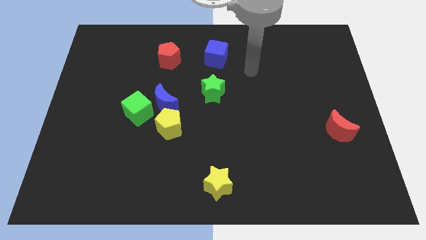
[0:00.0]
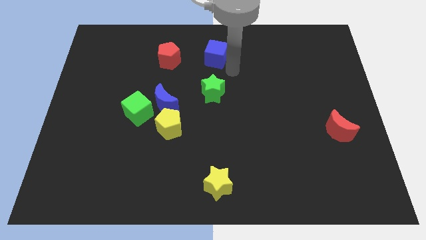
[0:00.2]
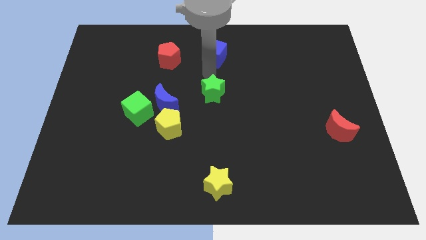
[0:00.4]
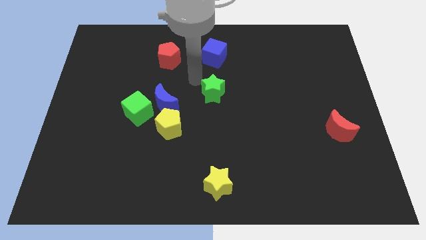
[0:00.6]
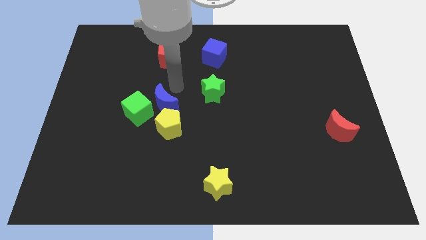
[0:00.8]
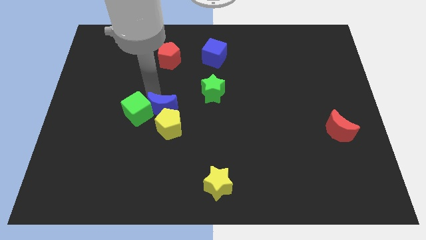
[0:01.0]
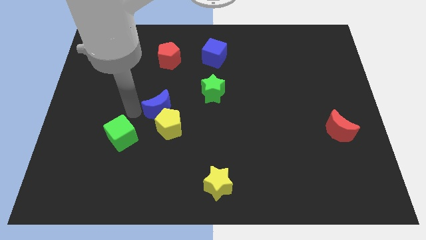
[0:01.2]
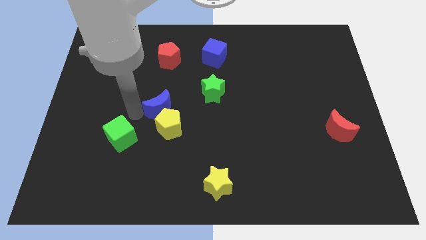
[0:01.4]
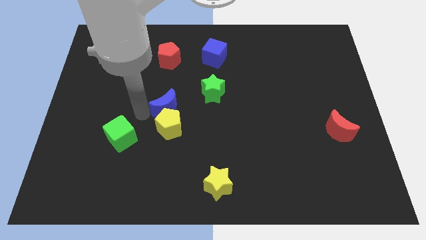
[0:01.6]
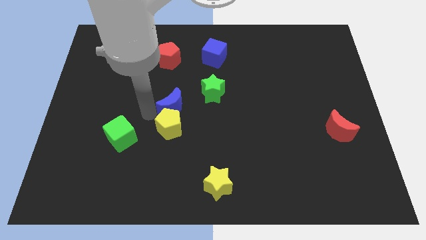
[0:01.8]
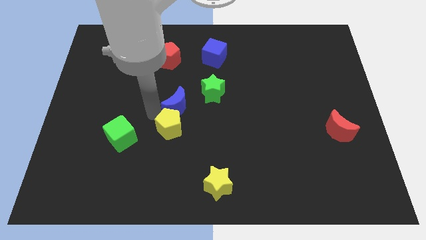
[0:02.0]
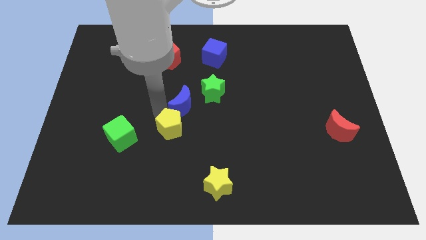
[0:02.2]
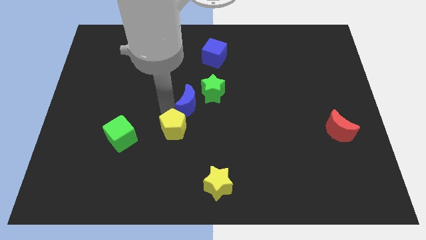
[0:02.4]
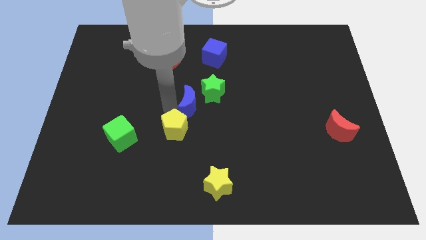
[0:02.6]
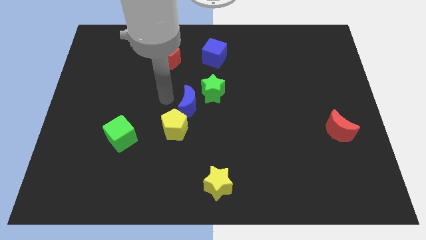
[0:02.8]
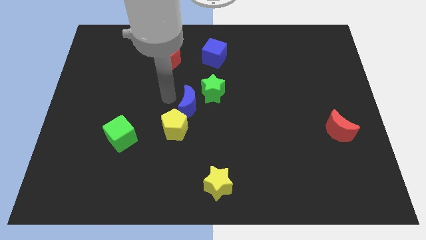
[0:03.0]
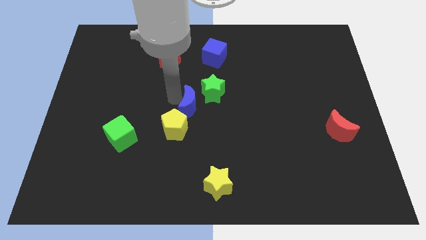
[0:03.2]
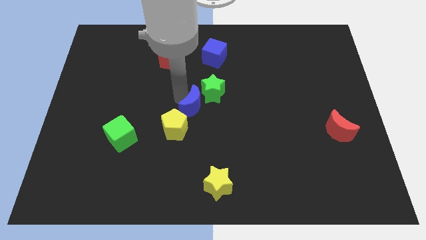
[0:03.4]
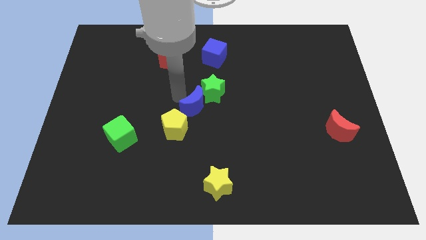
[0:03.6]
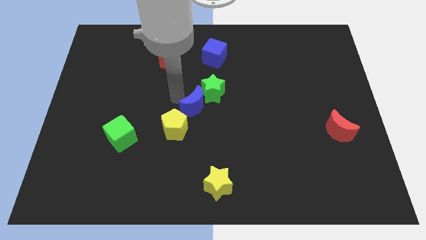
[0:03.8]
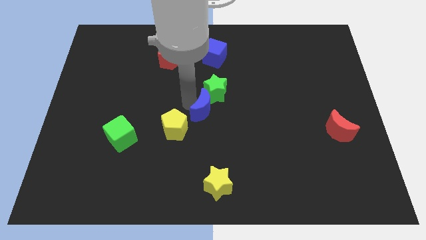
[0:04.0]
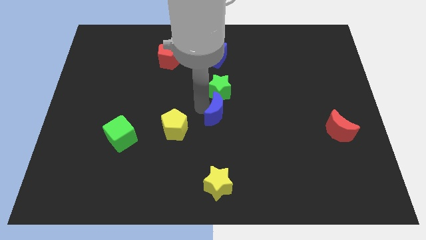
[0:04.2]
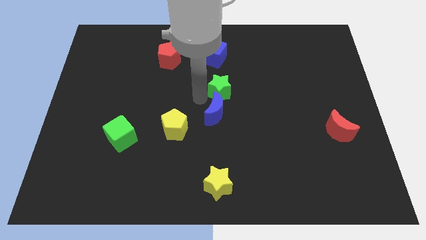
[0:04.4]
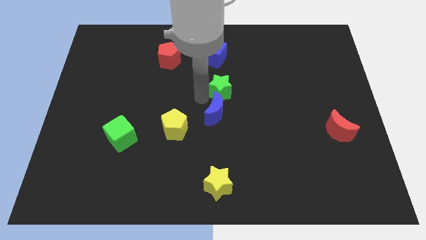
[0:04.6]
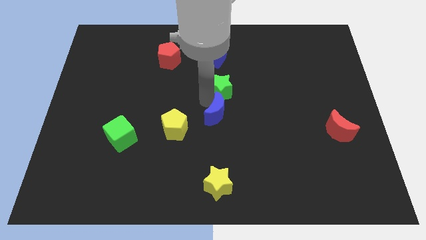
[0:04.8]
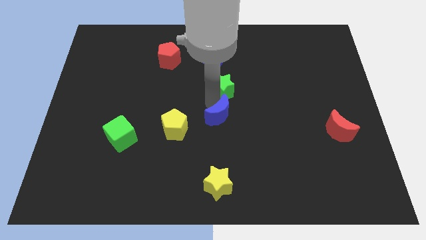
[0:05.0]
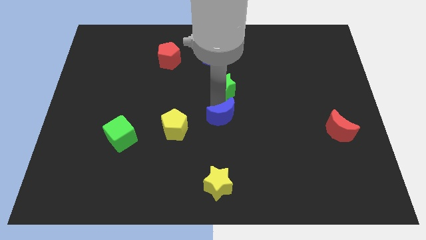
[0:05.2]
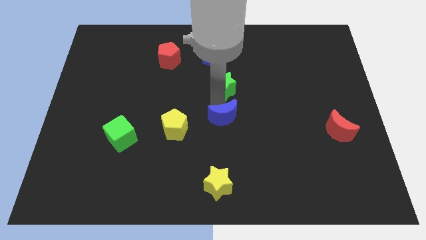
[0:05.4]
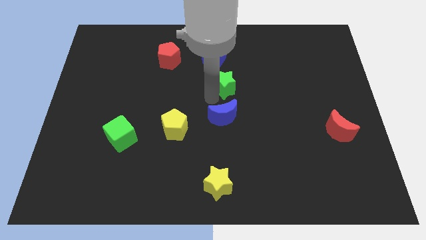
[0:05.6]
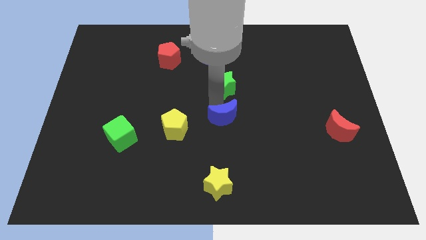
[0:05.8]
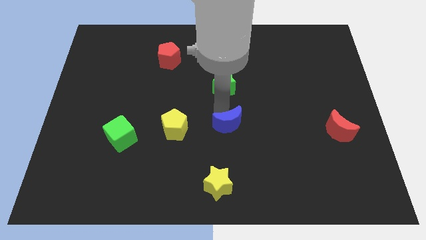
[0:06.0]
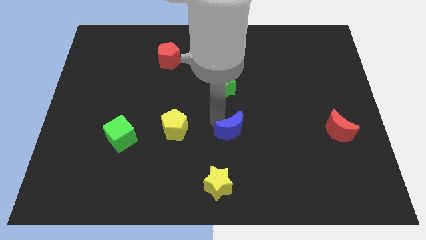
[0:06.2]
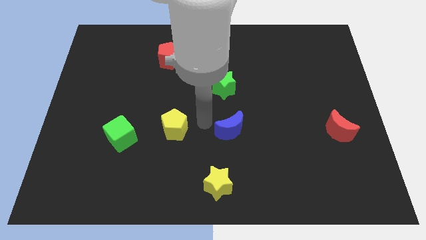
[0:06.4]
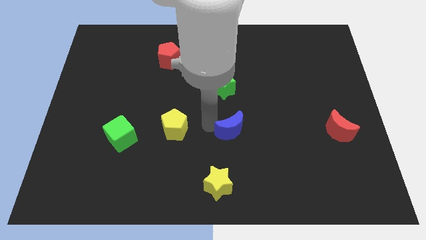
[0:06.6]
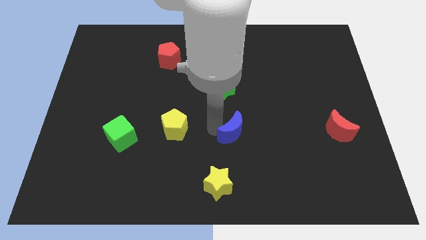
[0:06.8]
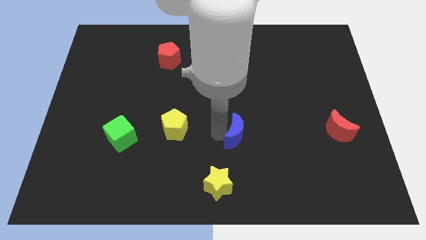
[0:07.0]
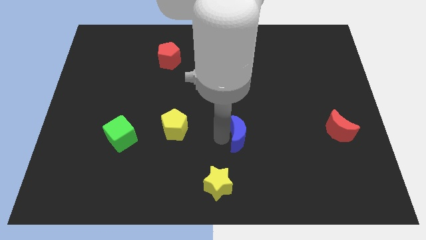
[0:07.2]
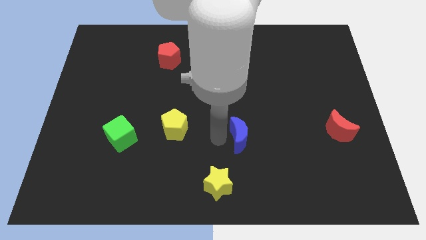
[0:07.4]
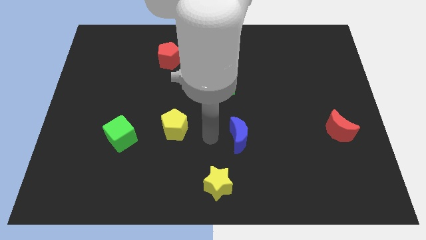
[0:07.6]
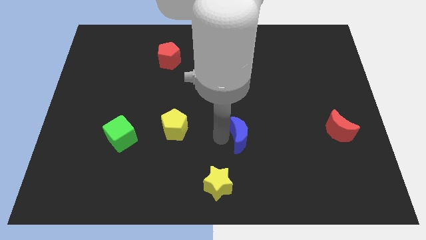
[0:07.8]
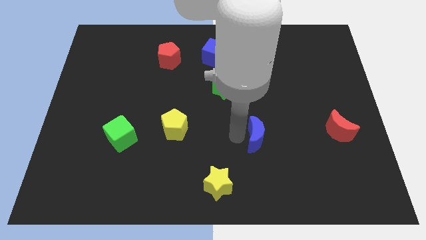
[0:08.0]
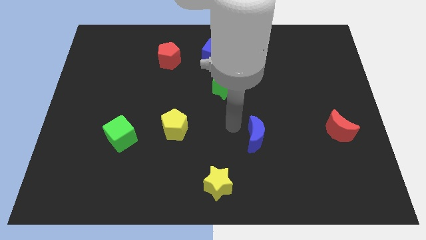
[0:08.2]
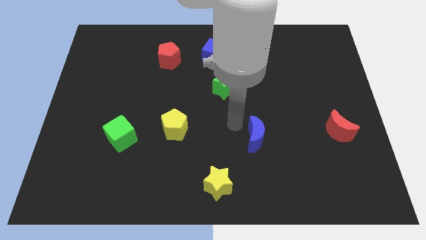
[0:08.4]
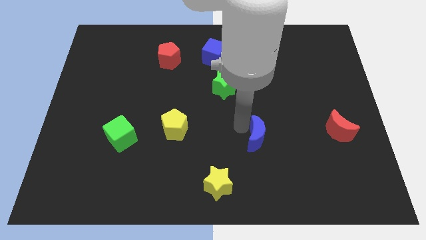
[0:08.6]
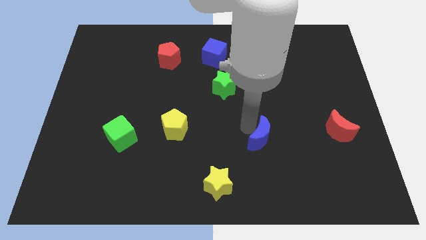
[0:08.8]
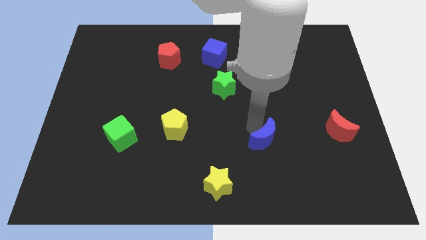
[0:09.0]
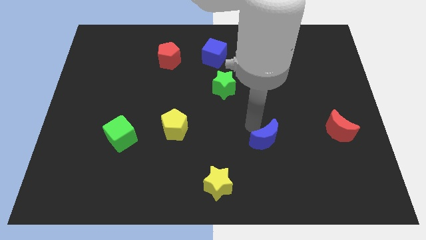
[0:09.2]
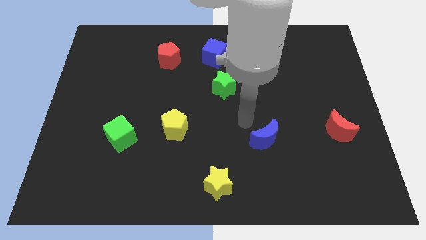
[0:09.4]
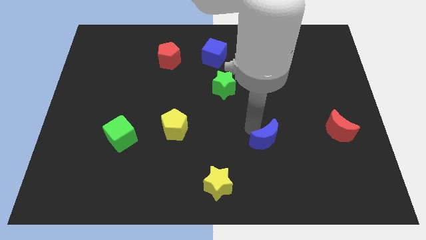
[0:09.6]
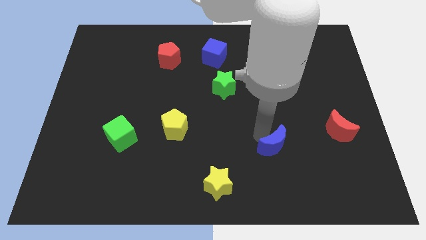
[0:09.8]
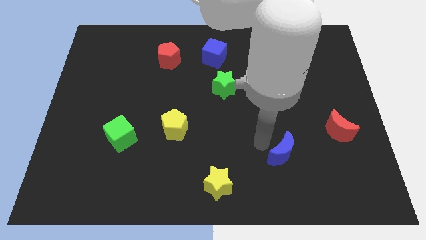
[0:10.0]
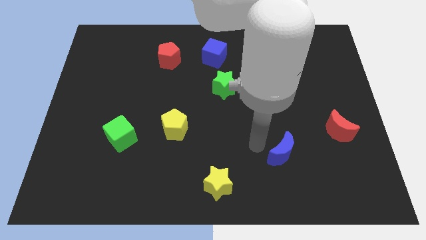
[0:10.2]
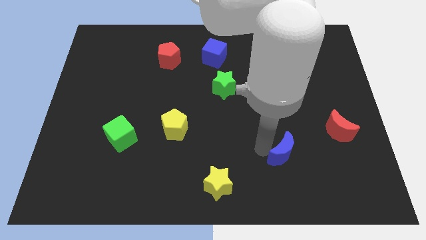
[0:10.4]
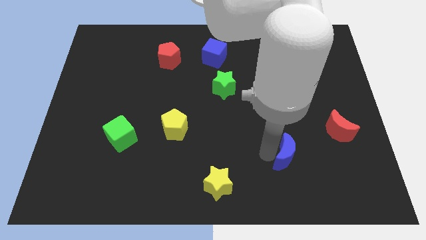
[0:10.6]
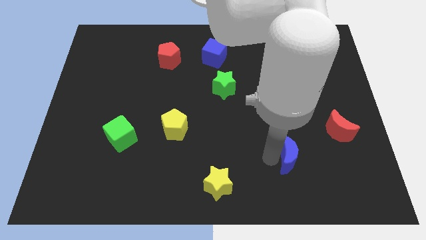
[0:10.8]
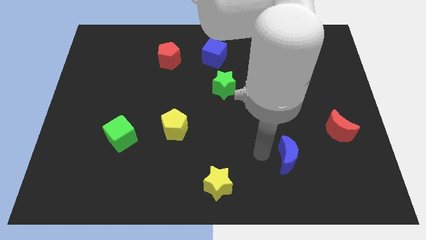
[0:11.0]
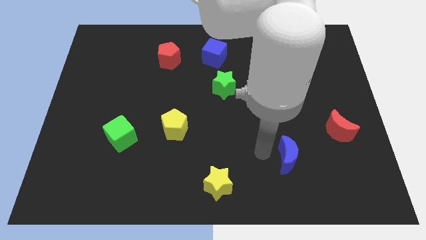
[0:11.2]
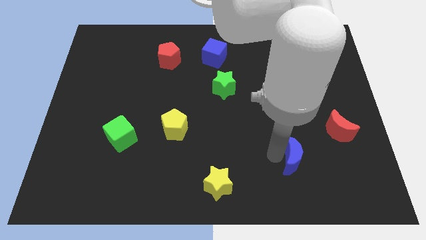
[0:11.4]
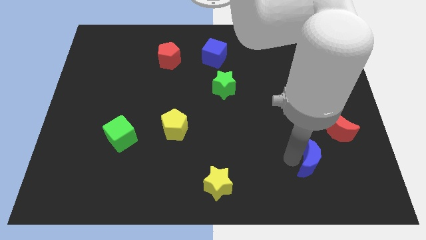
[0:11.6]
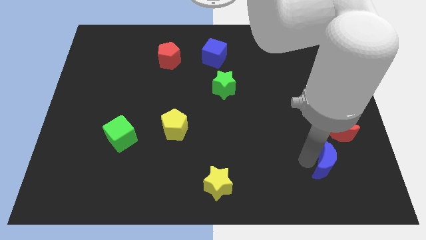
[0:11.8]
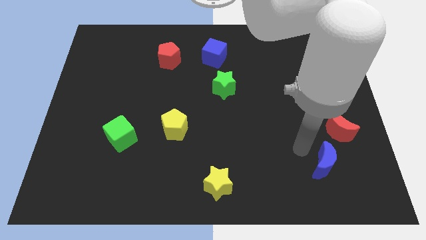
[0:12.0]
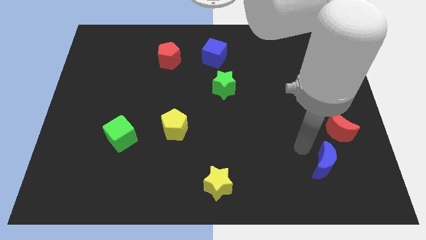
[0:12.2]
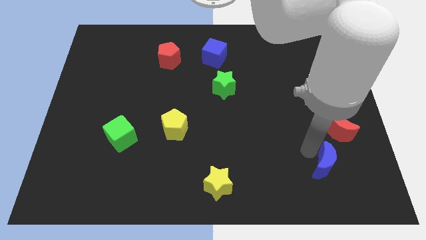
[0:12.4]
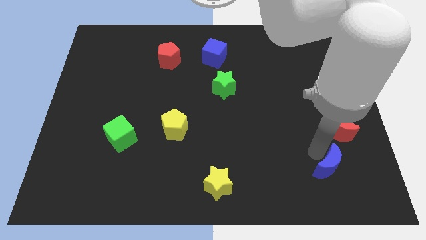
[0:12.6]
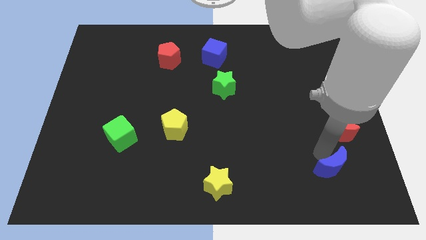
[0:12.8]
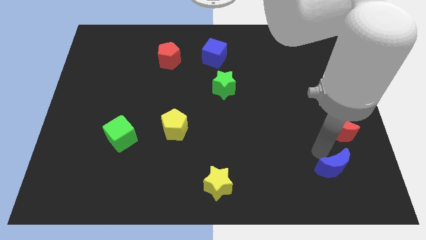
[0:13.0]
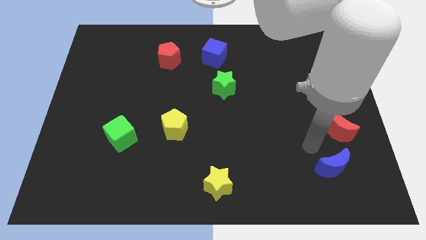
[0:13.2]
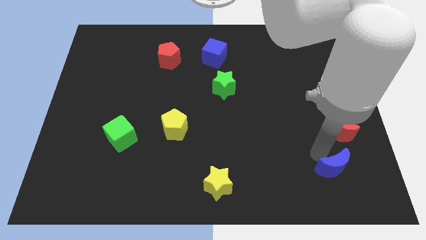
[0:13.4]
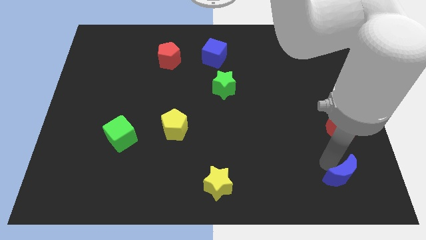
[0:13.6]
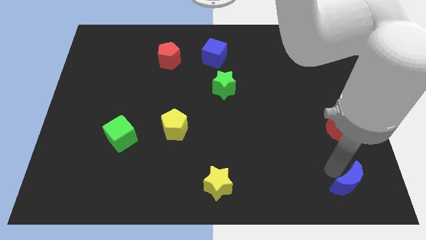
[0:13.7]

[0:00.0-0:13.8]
move the blue moon to the bottom right of the board
